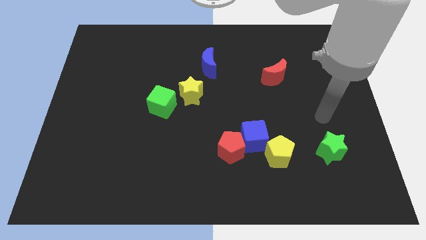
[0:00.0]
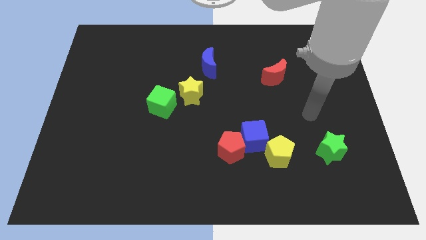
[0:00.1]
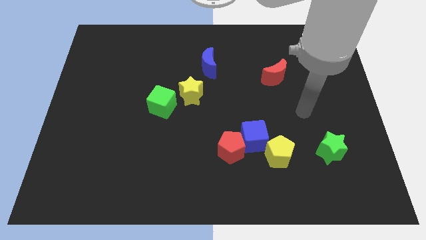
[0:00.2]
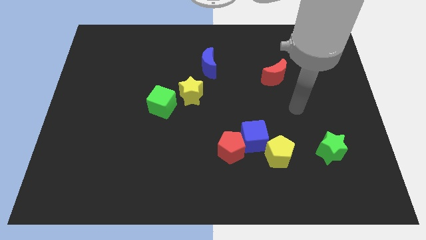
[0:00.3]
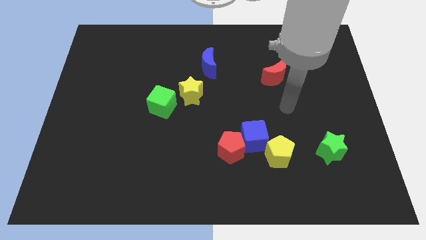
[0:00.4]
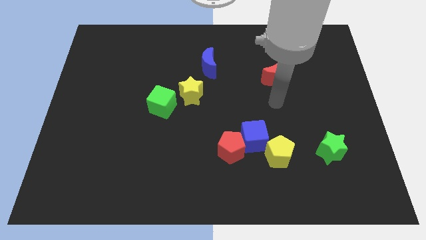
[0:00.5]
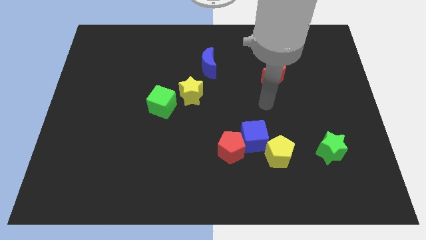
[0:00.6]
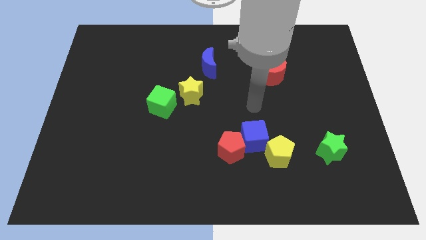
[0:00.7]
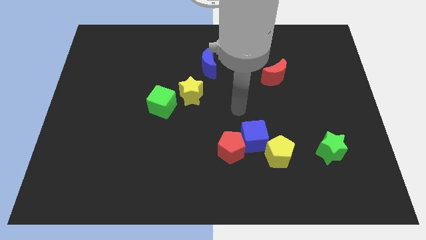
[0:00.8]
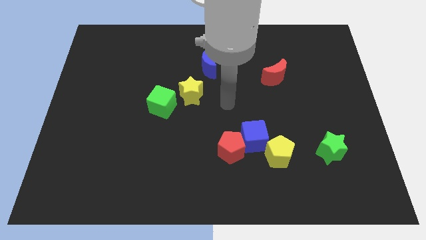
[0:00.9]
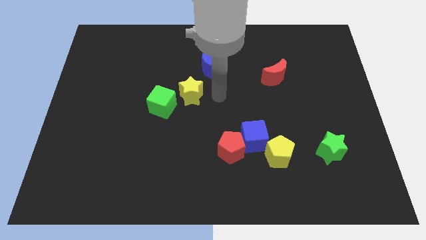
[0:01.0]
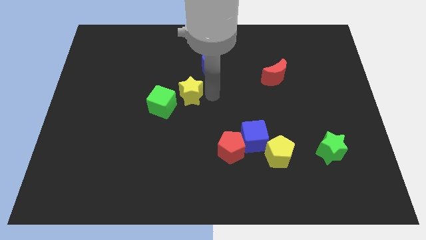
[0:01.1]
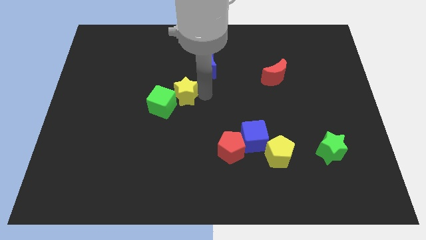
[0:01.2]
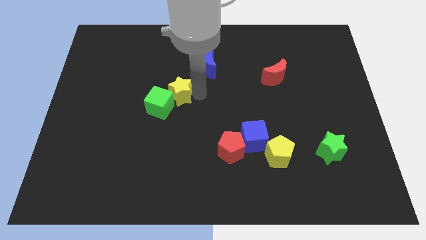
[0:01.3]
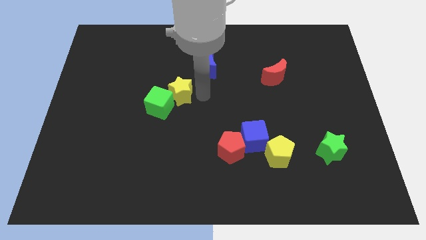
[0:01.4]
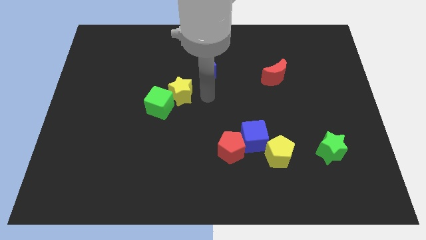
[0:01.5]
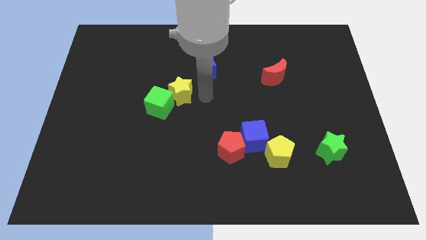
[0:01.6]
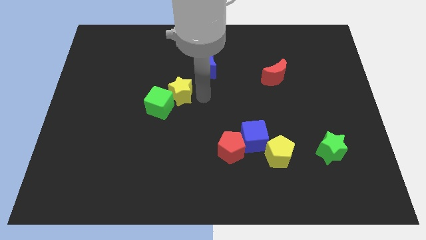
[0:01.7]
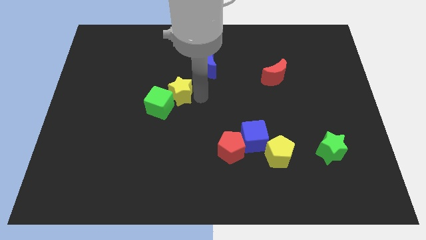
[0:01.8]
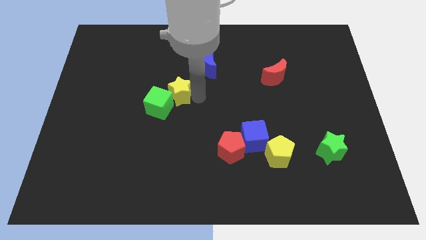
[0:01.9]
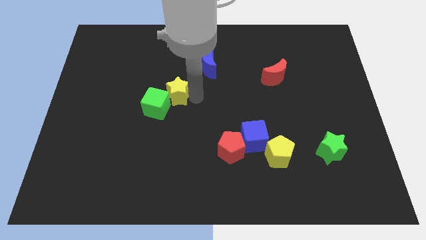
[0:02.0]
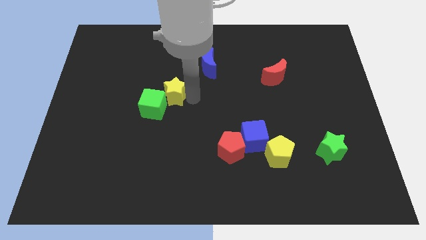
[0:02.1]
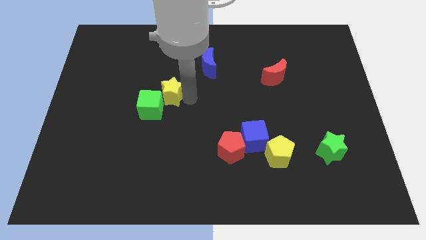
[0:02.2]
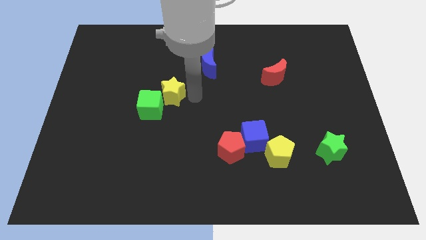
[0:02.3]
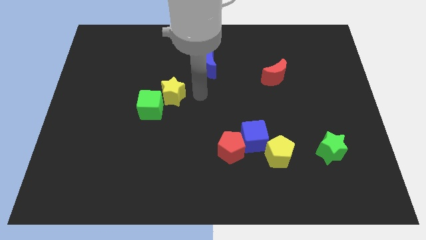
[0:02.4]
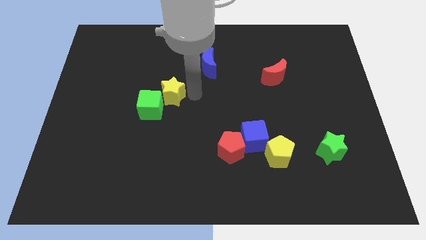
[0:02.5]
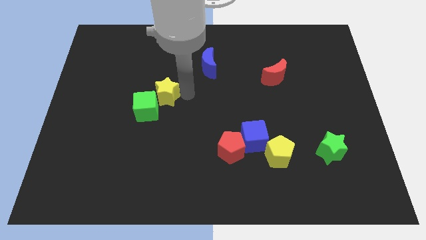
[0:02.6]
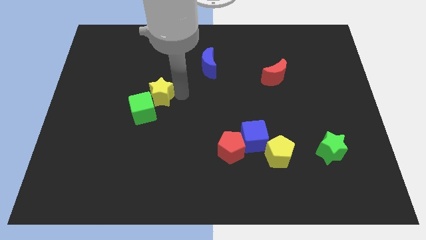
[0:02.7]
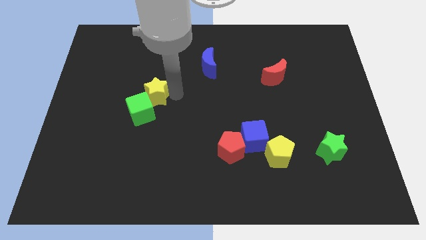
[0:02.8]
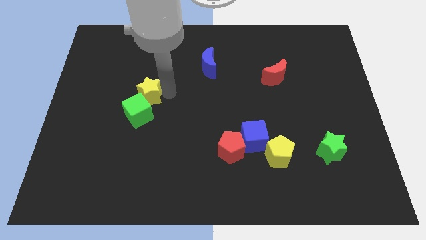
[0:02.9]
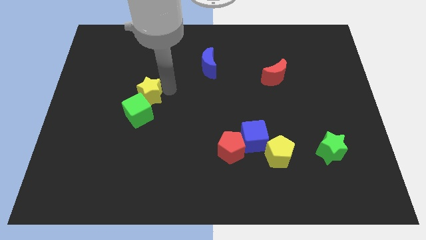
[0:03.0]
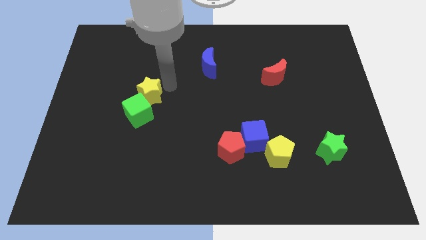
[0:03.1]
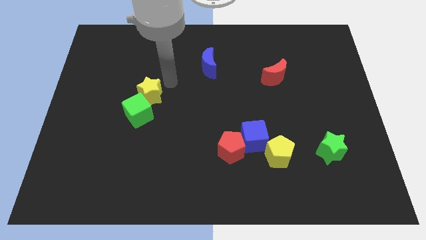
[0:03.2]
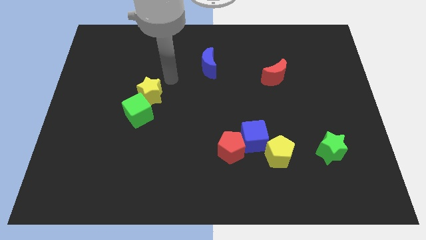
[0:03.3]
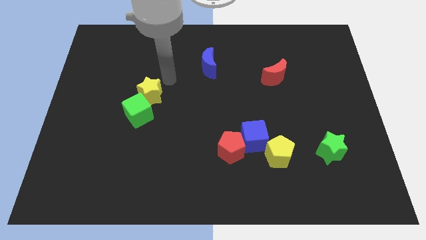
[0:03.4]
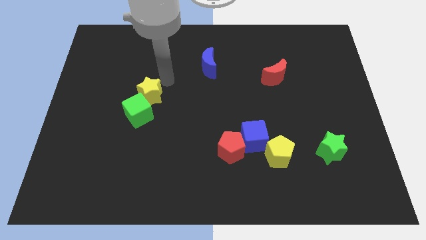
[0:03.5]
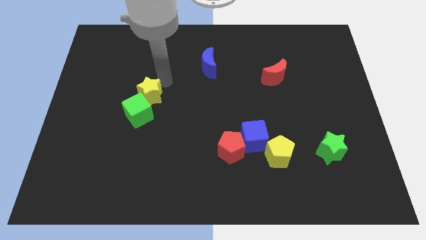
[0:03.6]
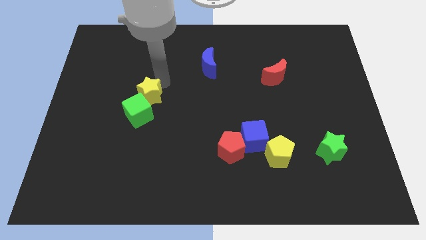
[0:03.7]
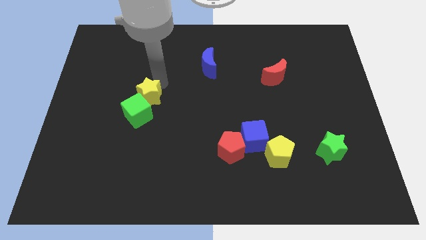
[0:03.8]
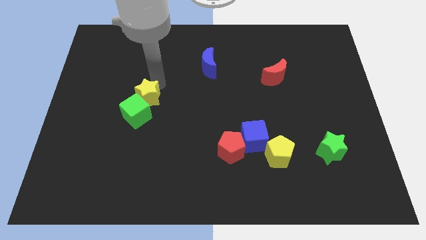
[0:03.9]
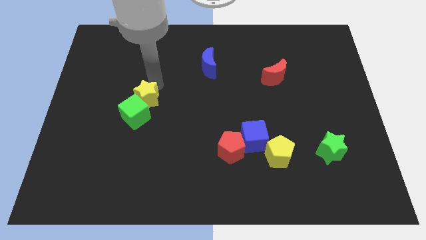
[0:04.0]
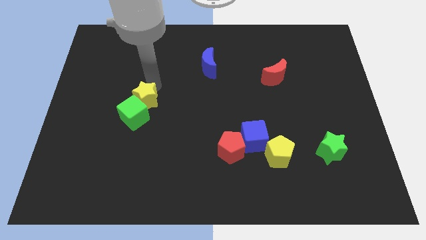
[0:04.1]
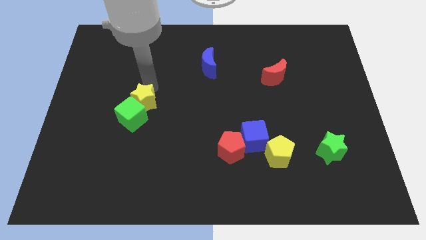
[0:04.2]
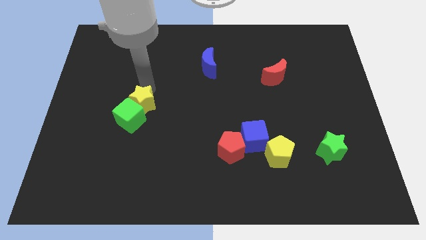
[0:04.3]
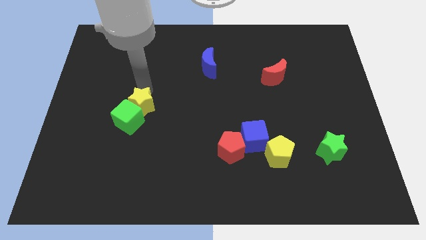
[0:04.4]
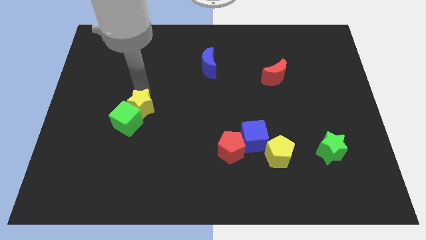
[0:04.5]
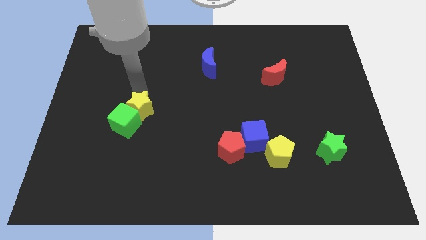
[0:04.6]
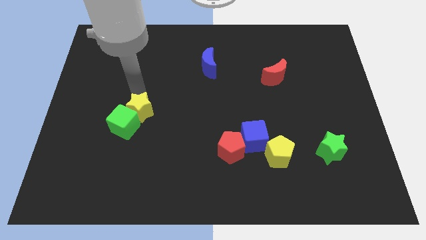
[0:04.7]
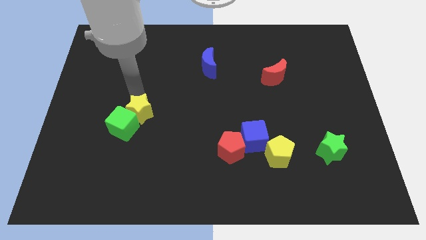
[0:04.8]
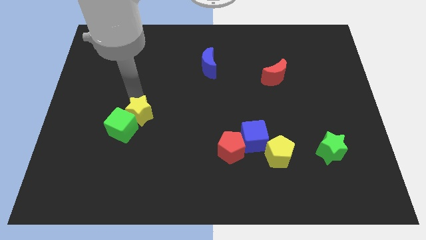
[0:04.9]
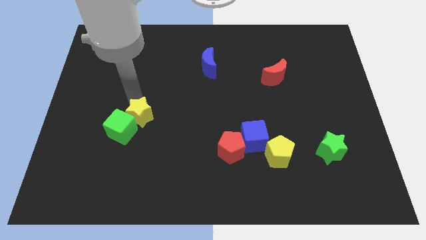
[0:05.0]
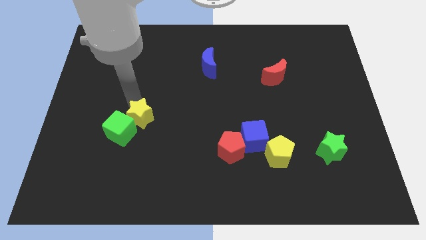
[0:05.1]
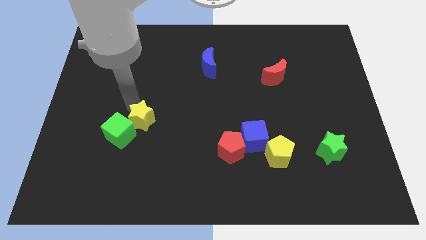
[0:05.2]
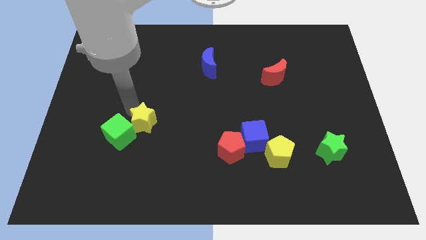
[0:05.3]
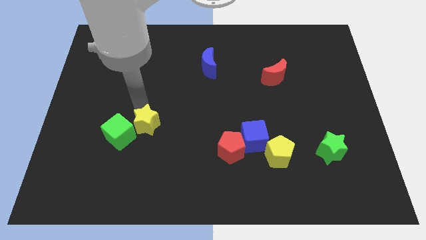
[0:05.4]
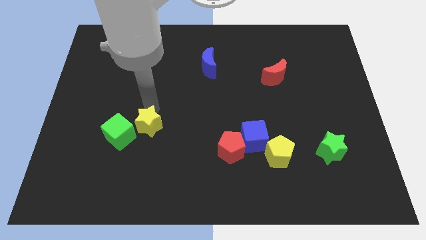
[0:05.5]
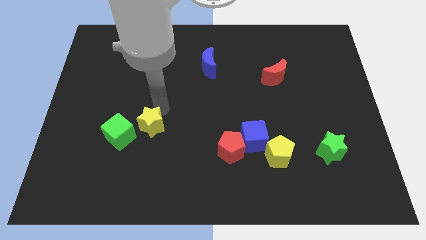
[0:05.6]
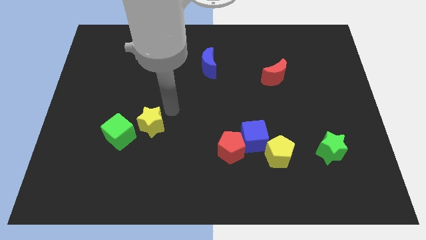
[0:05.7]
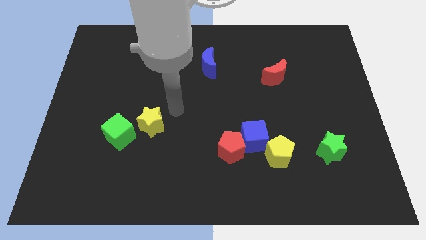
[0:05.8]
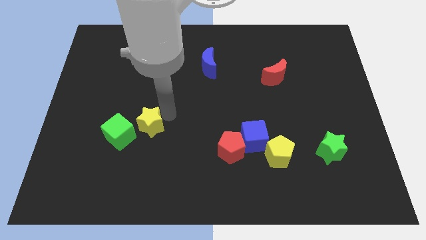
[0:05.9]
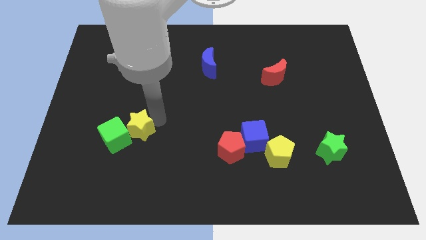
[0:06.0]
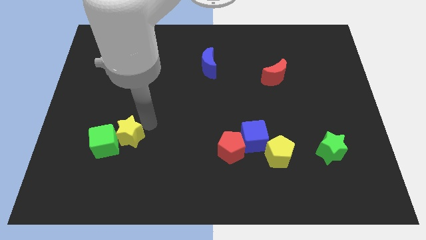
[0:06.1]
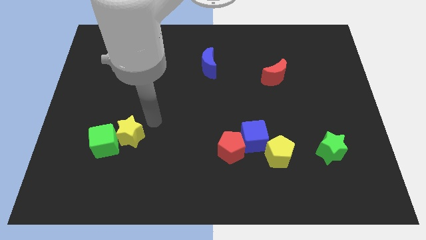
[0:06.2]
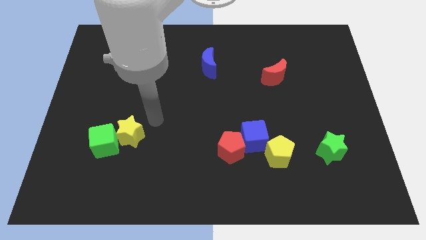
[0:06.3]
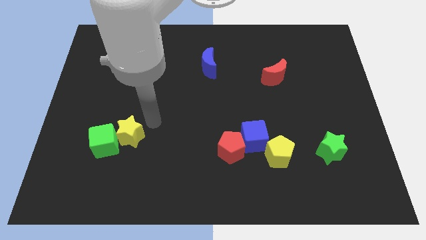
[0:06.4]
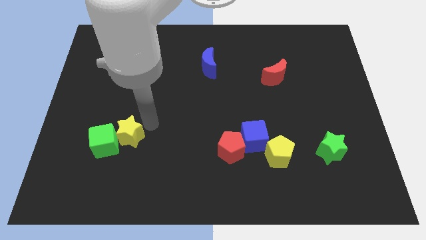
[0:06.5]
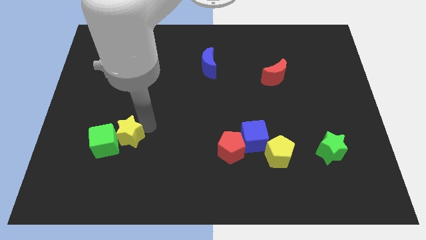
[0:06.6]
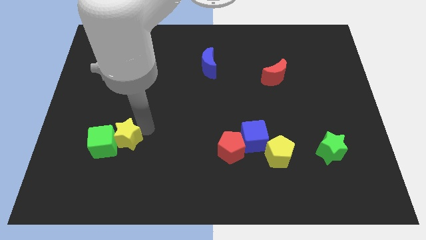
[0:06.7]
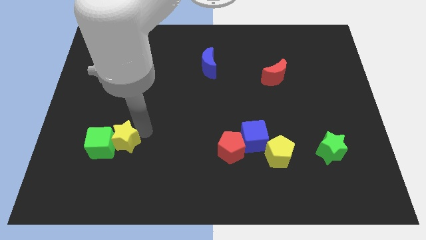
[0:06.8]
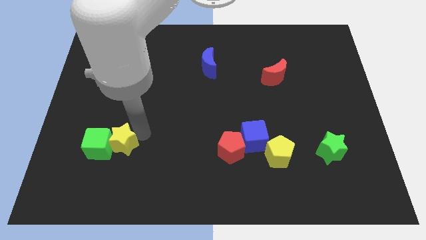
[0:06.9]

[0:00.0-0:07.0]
slide the yellow star downwards and then to the left

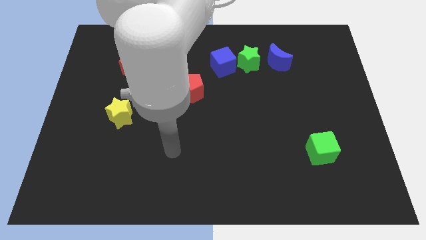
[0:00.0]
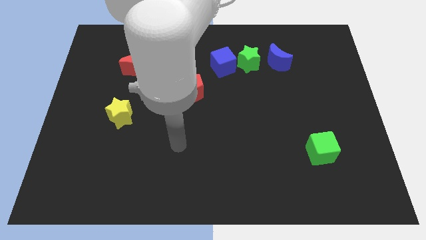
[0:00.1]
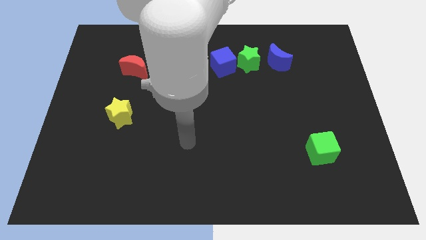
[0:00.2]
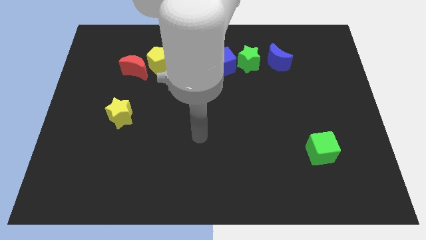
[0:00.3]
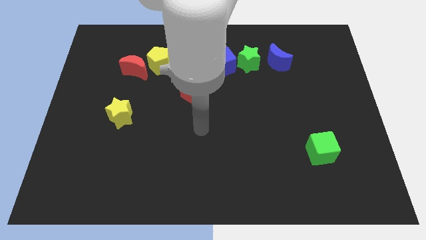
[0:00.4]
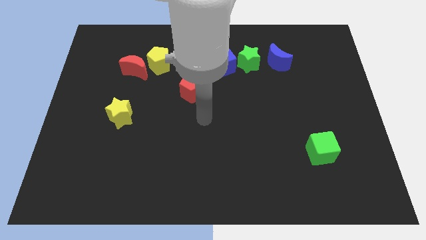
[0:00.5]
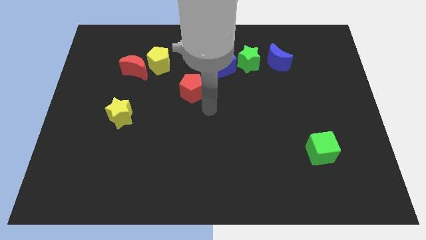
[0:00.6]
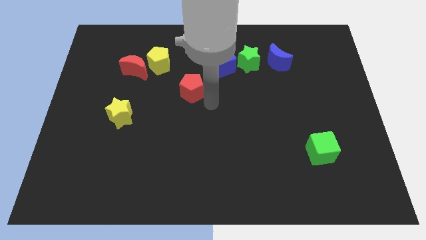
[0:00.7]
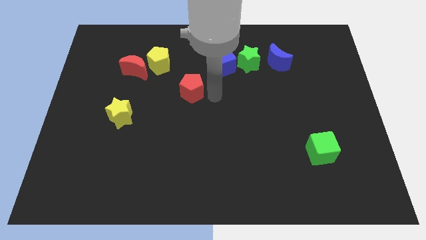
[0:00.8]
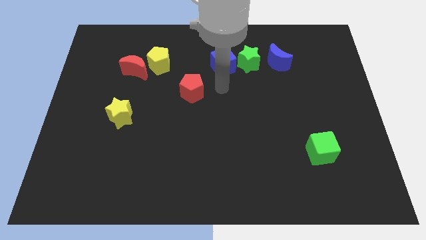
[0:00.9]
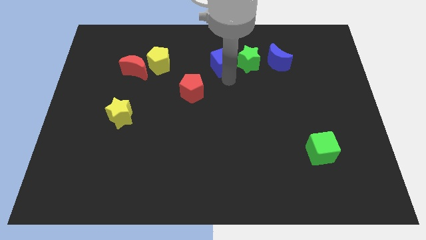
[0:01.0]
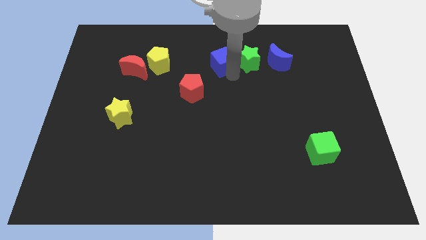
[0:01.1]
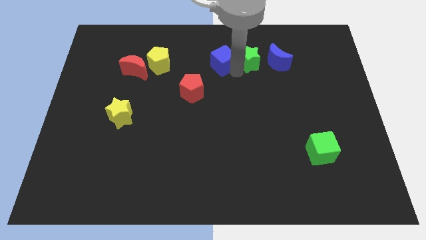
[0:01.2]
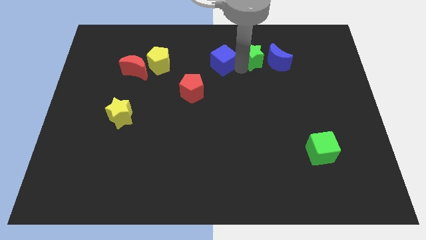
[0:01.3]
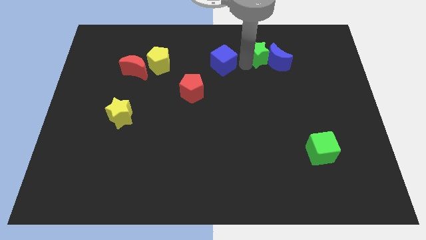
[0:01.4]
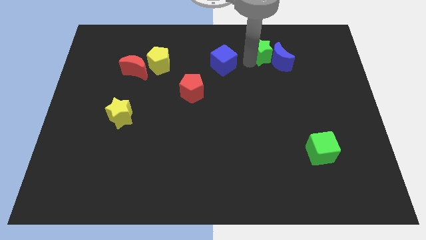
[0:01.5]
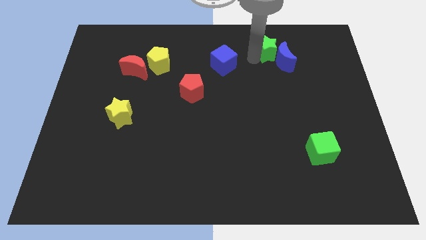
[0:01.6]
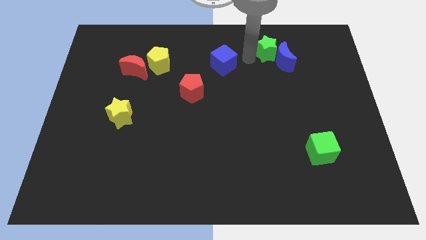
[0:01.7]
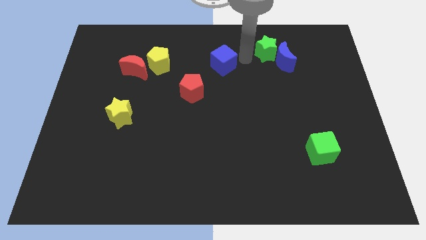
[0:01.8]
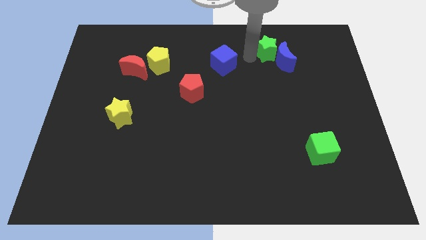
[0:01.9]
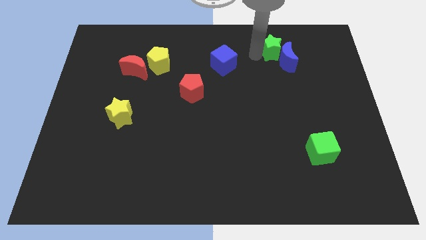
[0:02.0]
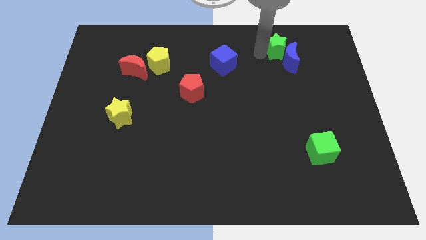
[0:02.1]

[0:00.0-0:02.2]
slightly push the green star right
